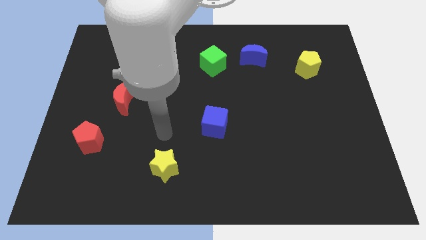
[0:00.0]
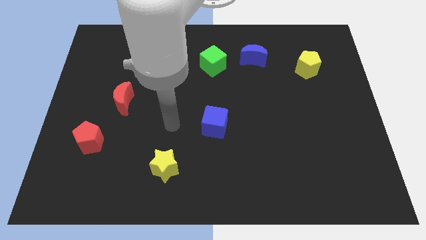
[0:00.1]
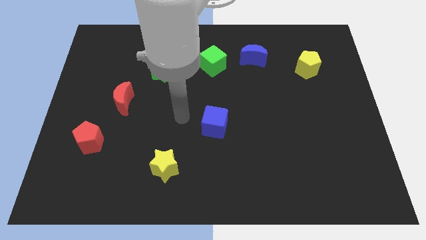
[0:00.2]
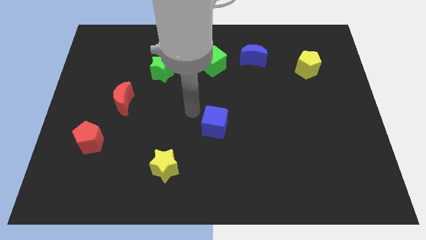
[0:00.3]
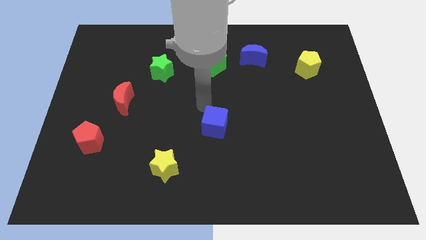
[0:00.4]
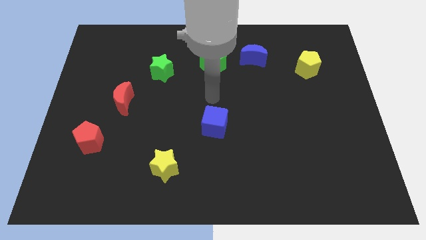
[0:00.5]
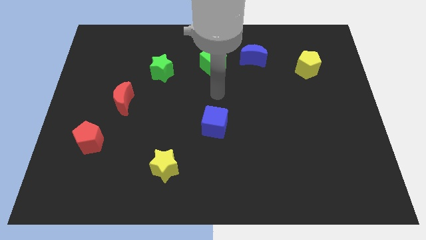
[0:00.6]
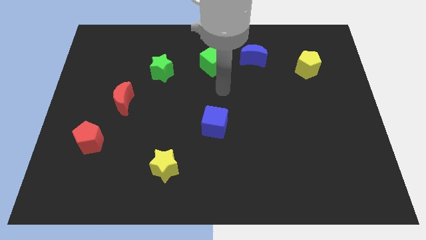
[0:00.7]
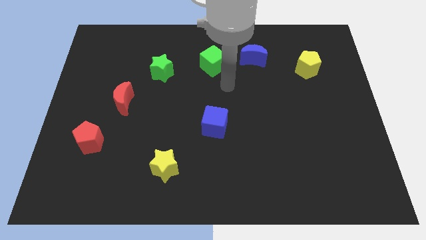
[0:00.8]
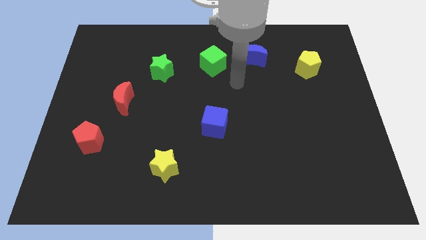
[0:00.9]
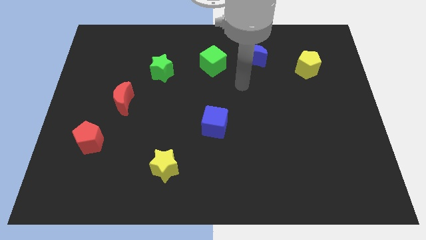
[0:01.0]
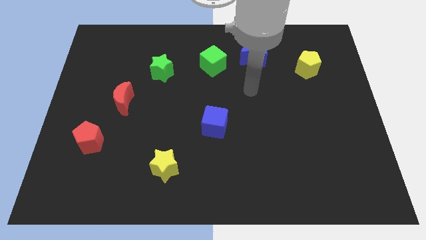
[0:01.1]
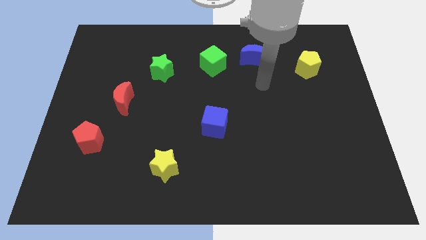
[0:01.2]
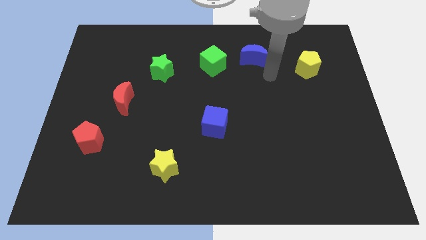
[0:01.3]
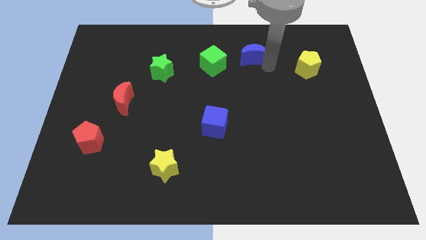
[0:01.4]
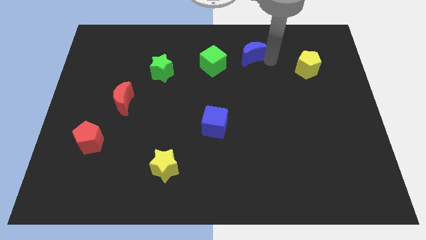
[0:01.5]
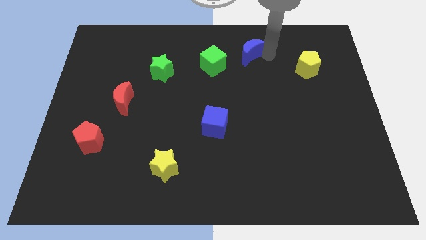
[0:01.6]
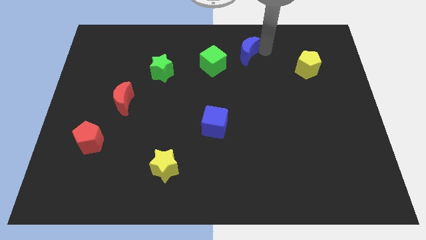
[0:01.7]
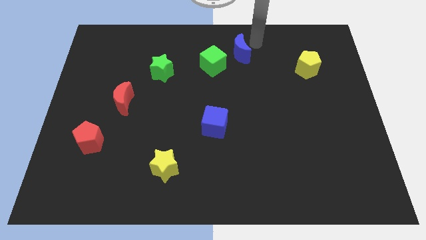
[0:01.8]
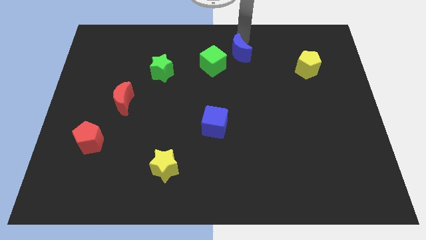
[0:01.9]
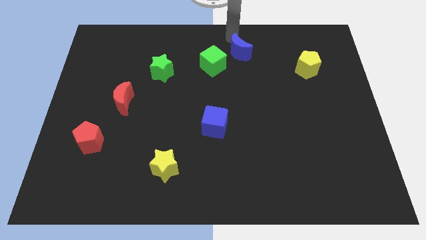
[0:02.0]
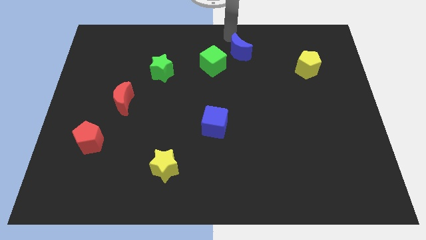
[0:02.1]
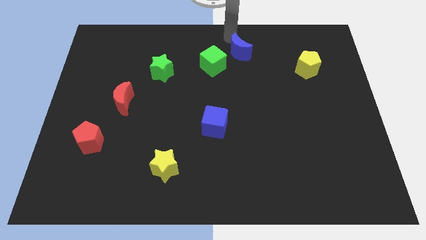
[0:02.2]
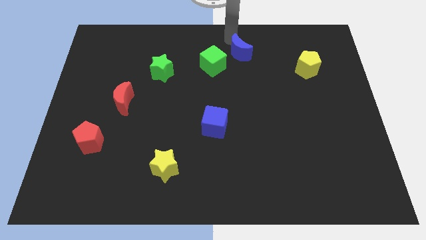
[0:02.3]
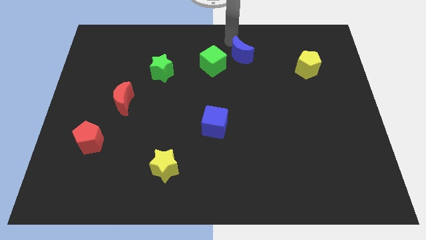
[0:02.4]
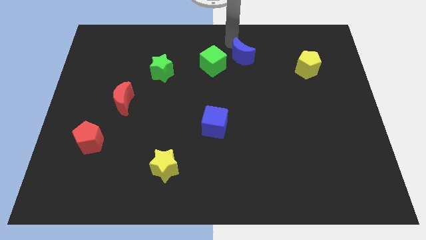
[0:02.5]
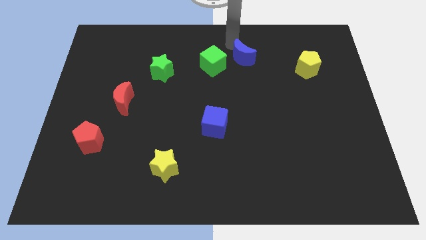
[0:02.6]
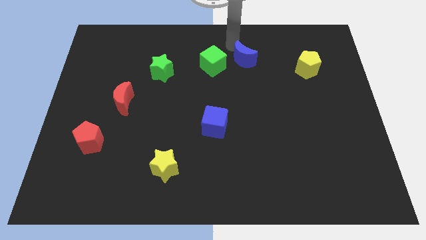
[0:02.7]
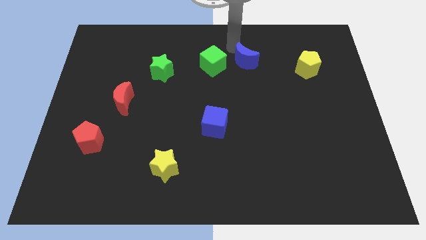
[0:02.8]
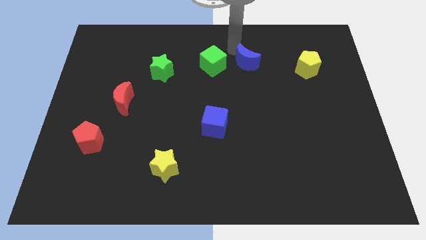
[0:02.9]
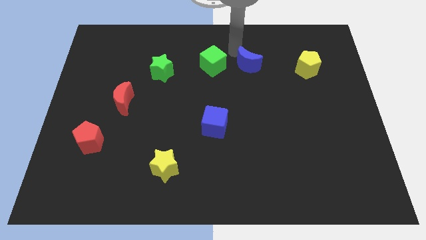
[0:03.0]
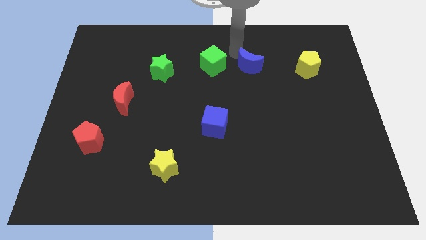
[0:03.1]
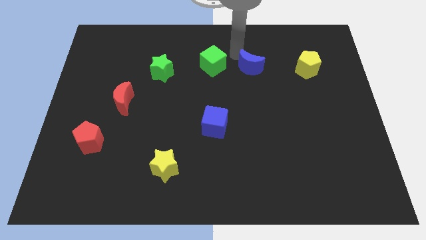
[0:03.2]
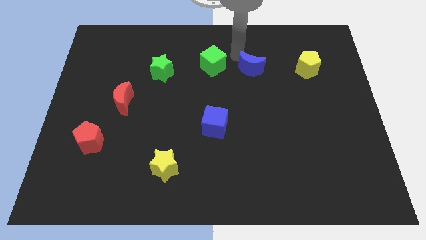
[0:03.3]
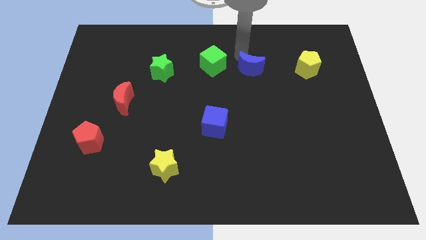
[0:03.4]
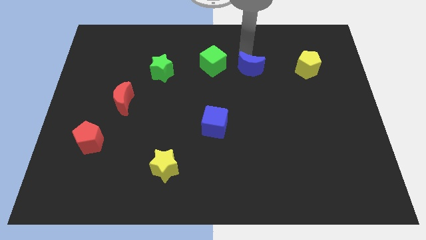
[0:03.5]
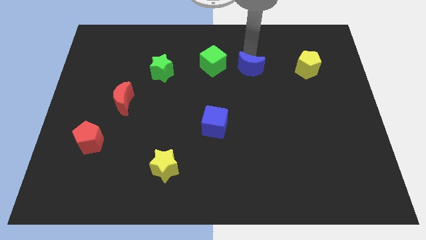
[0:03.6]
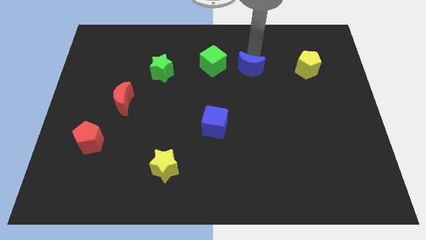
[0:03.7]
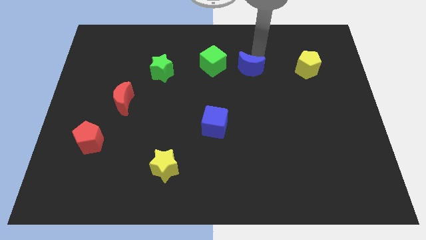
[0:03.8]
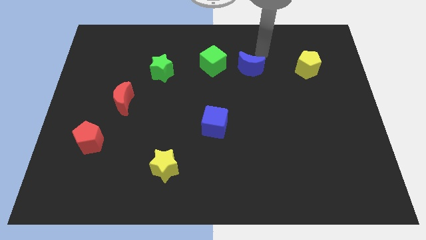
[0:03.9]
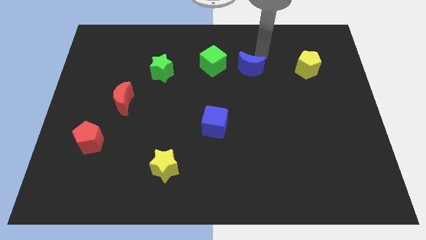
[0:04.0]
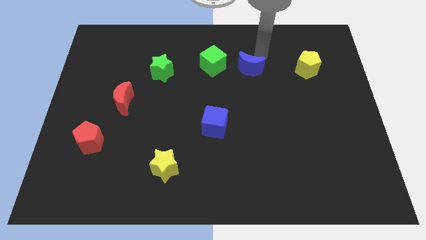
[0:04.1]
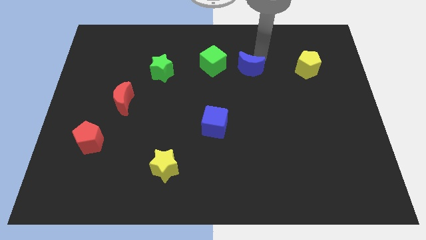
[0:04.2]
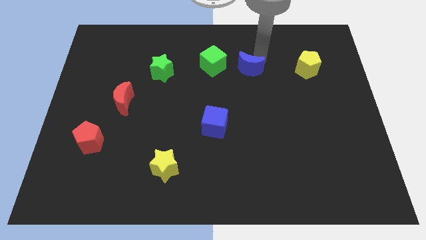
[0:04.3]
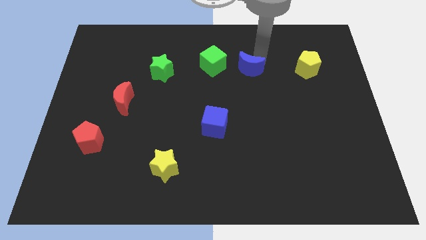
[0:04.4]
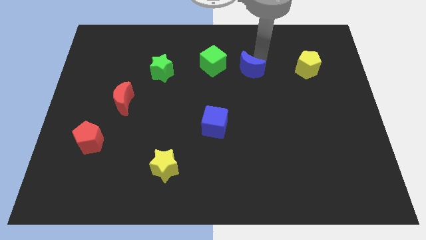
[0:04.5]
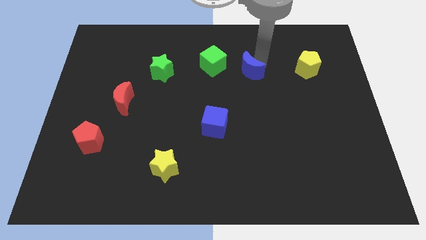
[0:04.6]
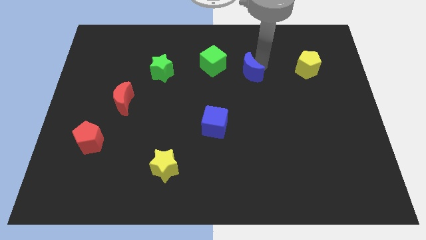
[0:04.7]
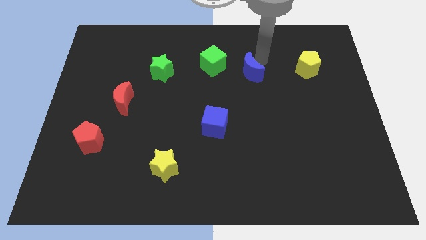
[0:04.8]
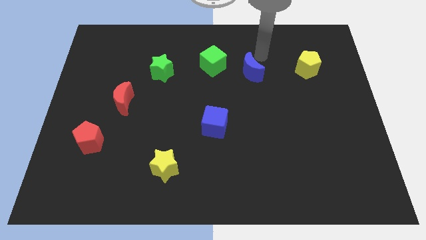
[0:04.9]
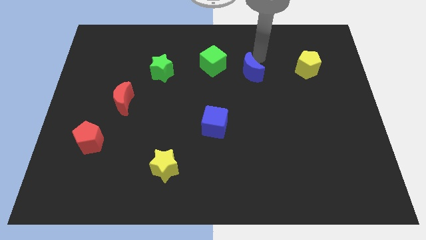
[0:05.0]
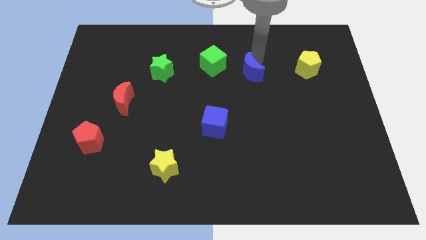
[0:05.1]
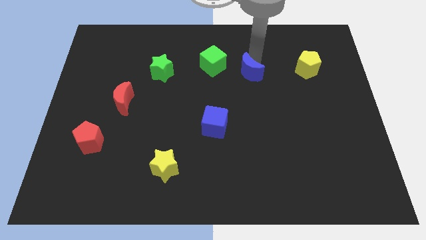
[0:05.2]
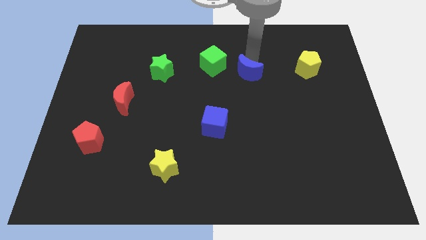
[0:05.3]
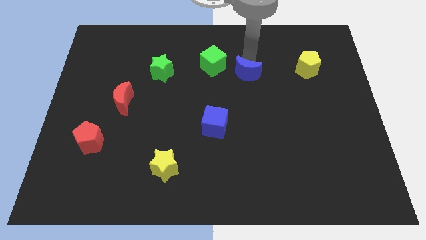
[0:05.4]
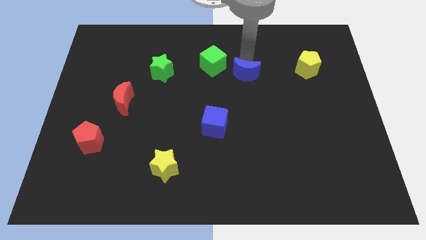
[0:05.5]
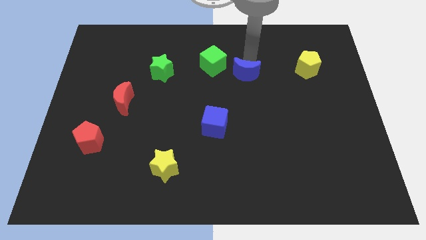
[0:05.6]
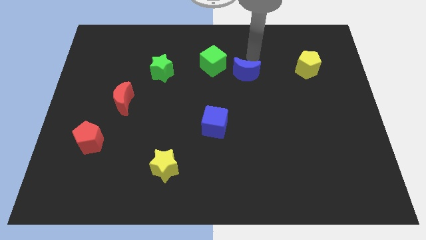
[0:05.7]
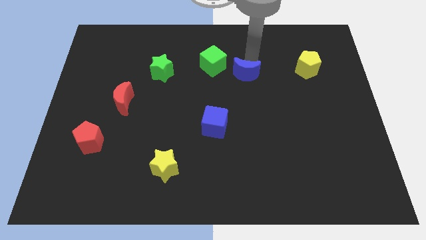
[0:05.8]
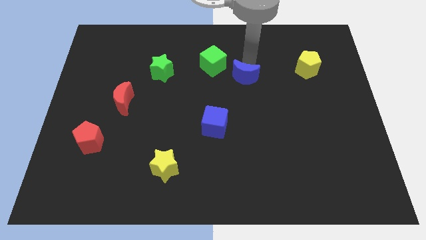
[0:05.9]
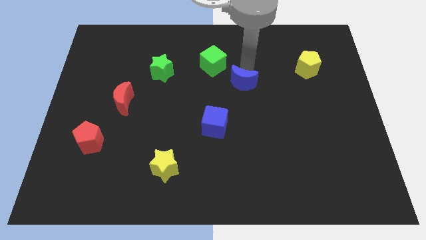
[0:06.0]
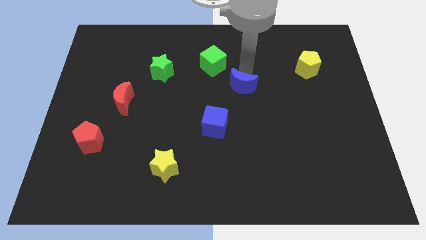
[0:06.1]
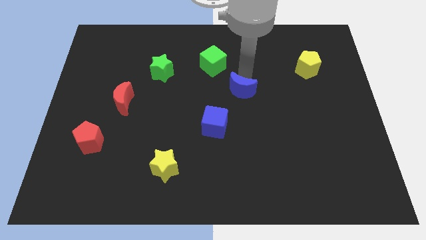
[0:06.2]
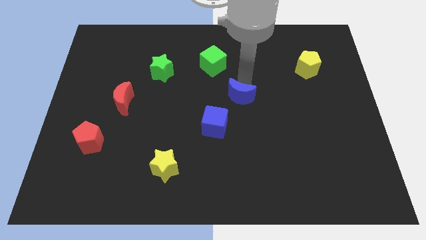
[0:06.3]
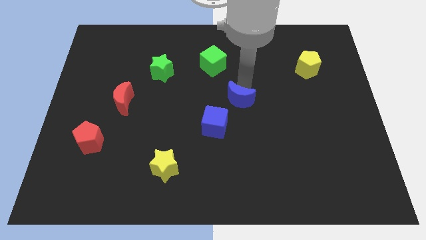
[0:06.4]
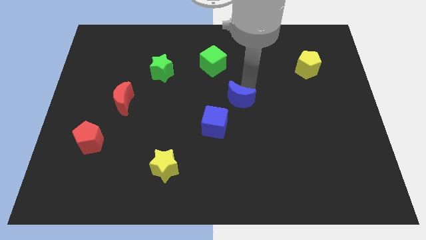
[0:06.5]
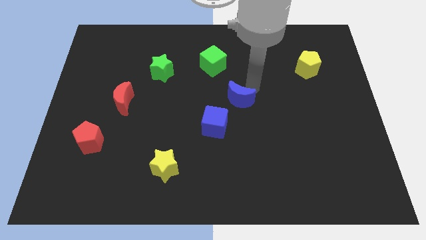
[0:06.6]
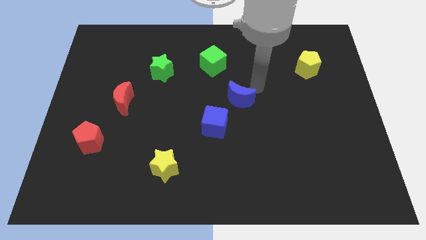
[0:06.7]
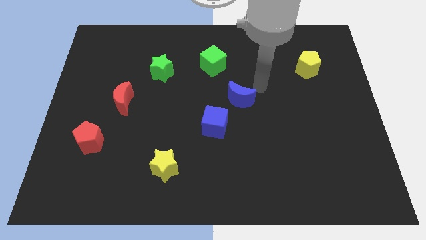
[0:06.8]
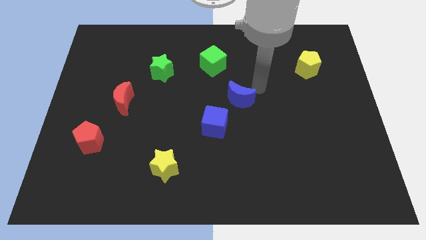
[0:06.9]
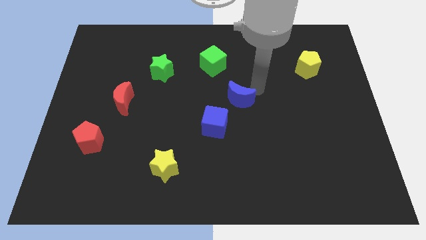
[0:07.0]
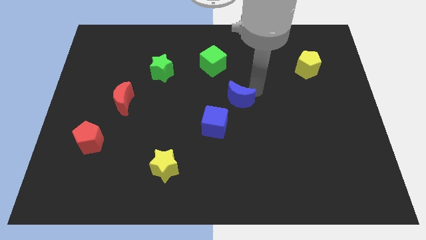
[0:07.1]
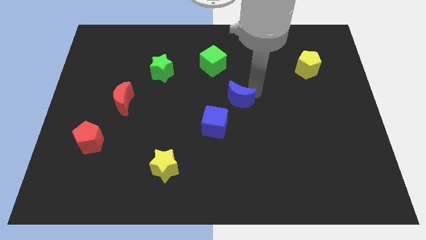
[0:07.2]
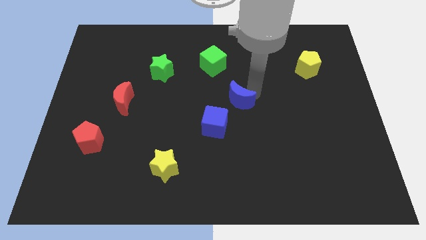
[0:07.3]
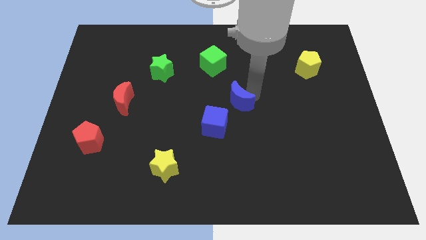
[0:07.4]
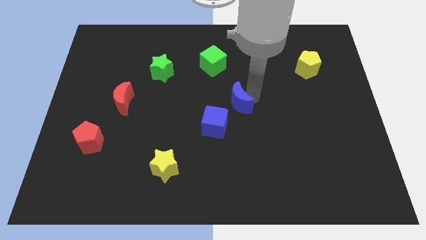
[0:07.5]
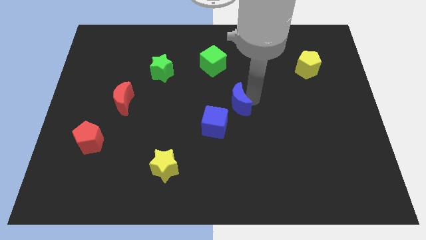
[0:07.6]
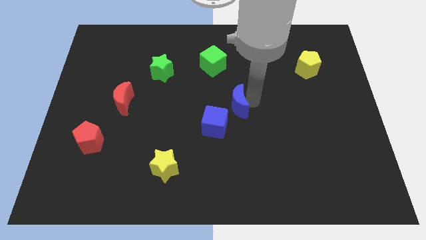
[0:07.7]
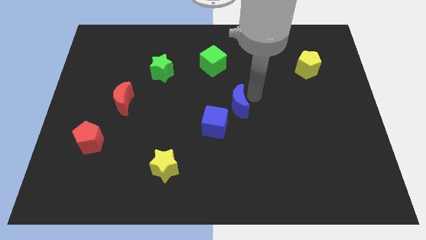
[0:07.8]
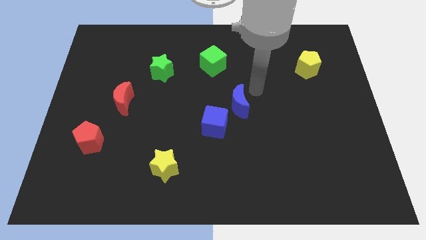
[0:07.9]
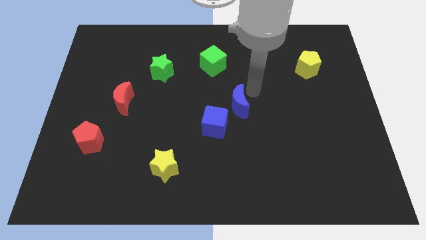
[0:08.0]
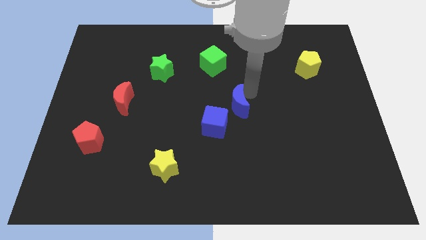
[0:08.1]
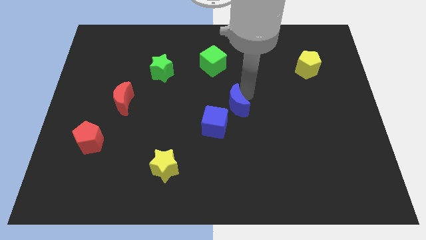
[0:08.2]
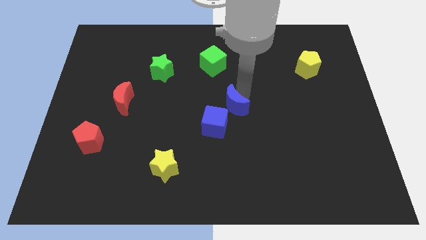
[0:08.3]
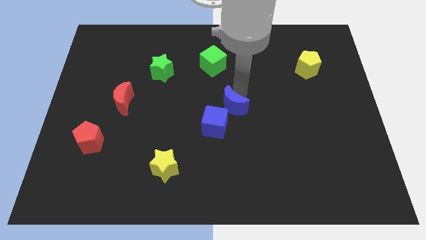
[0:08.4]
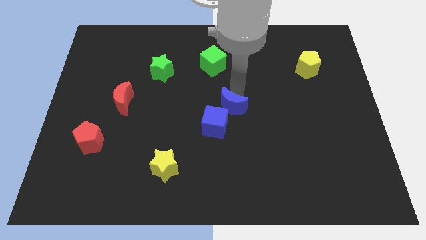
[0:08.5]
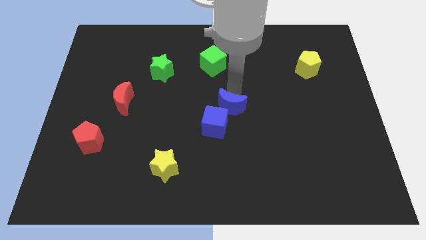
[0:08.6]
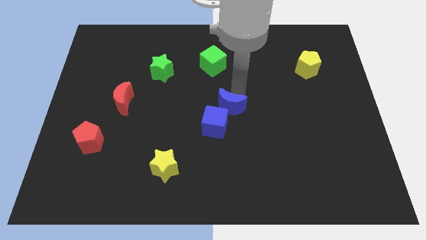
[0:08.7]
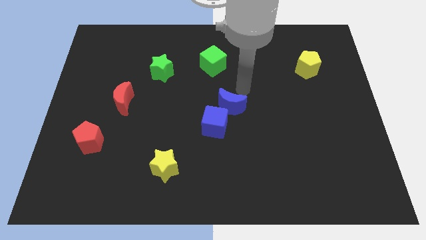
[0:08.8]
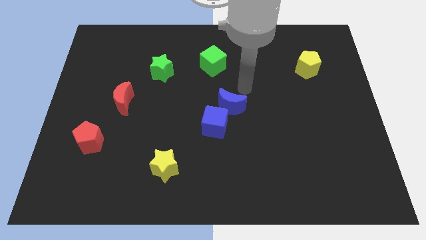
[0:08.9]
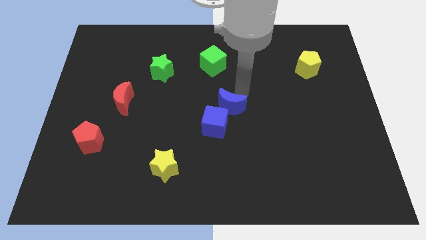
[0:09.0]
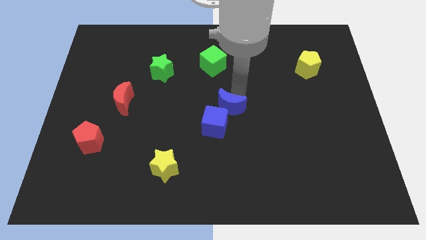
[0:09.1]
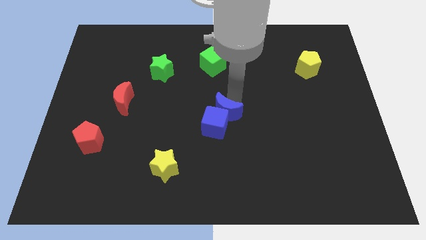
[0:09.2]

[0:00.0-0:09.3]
move the blue moon to the blue cube
